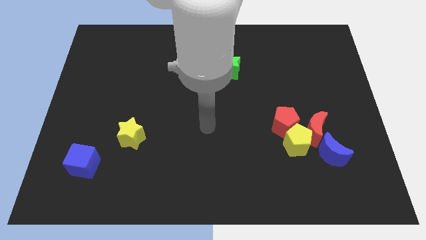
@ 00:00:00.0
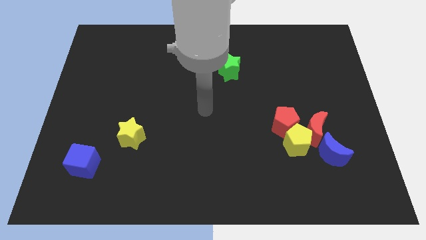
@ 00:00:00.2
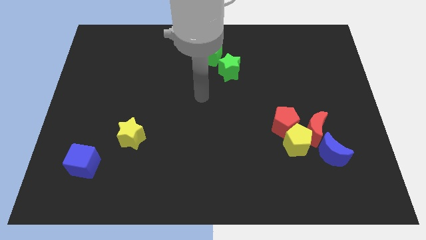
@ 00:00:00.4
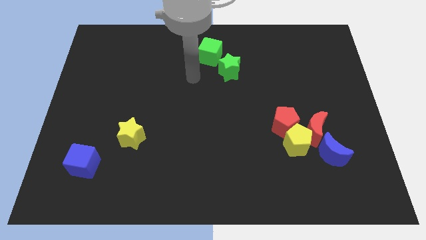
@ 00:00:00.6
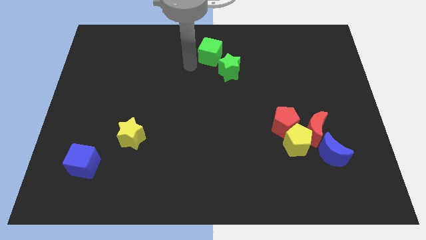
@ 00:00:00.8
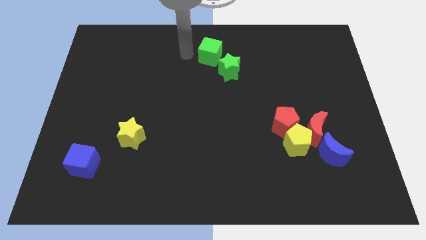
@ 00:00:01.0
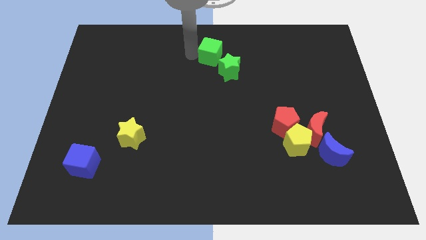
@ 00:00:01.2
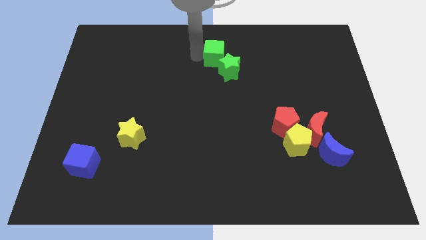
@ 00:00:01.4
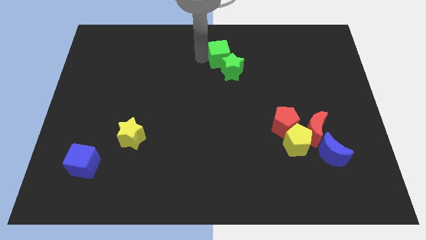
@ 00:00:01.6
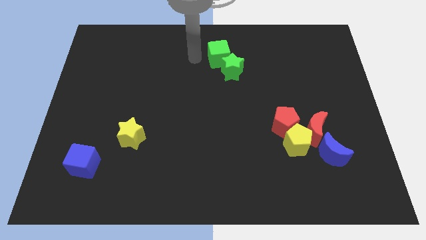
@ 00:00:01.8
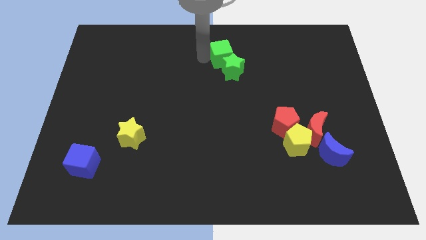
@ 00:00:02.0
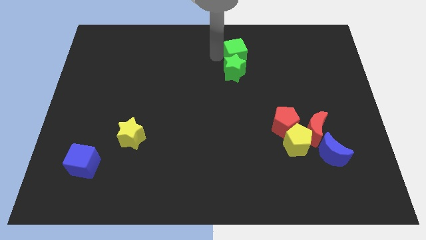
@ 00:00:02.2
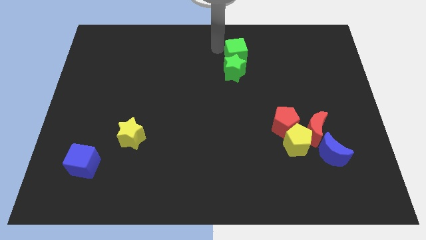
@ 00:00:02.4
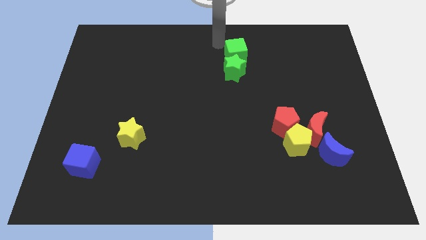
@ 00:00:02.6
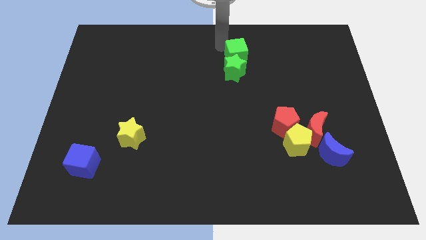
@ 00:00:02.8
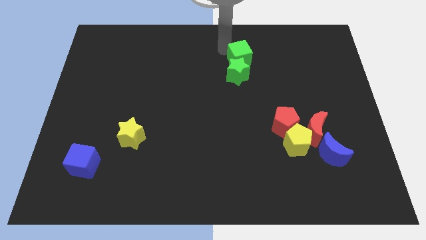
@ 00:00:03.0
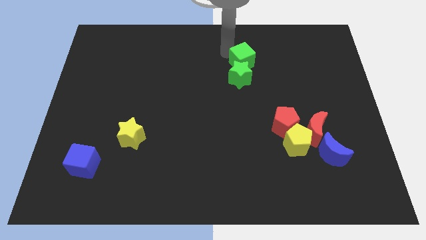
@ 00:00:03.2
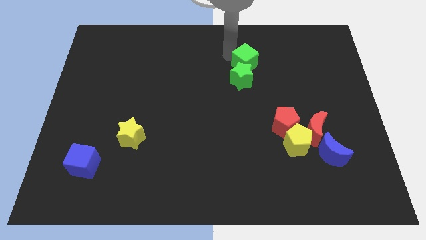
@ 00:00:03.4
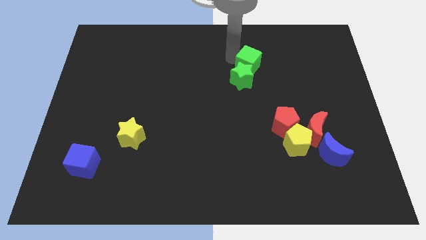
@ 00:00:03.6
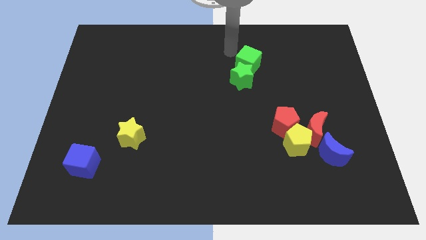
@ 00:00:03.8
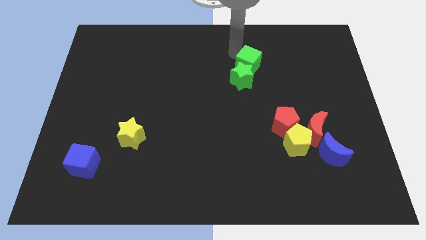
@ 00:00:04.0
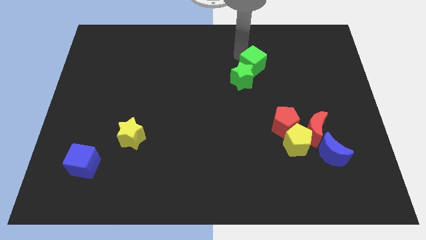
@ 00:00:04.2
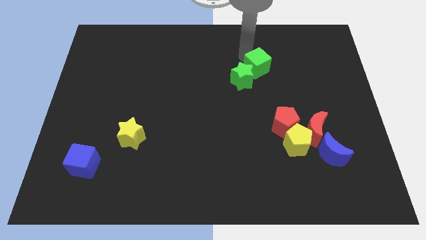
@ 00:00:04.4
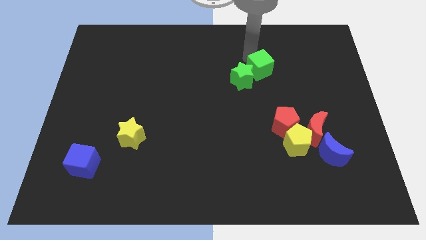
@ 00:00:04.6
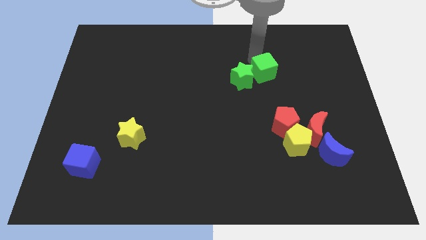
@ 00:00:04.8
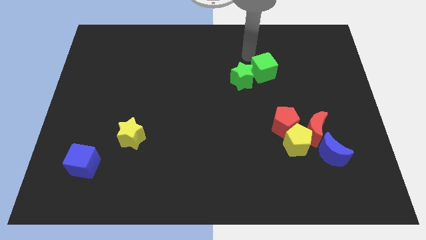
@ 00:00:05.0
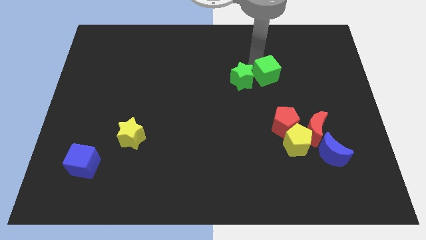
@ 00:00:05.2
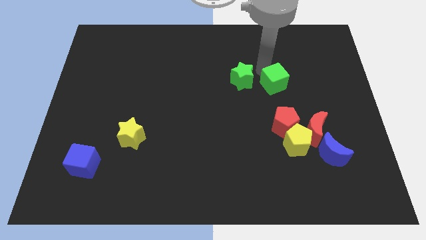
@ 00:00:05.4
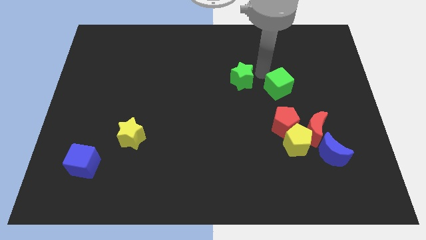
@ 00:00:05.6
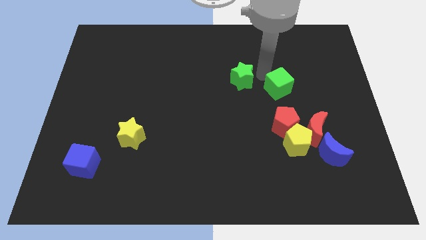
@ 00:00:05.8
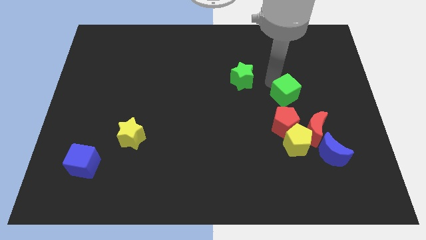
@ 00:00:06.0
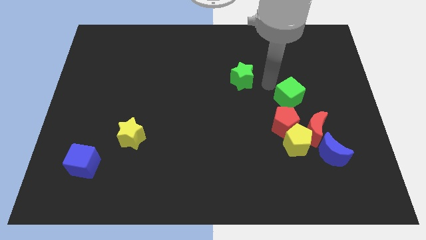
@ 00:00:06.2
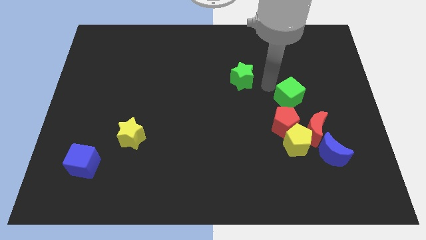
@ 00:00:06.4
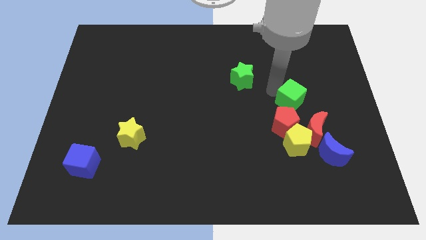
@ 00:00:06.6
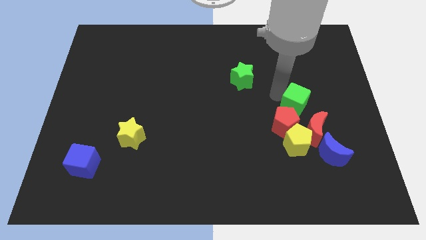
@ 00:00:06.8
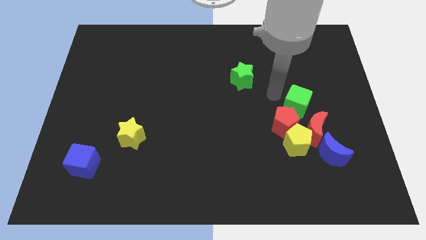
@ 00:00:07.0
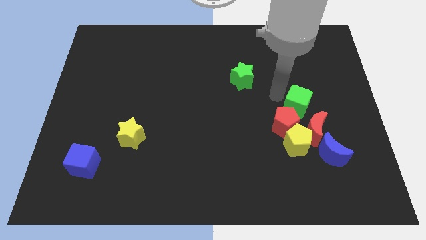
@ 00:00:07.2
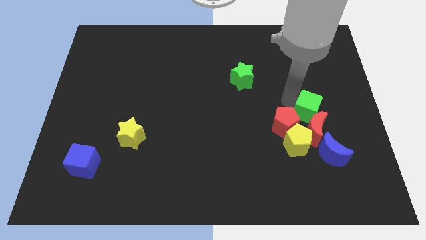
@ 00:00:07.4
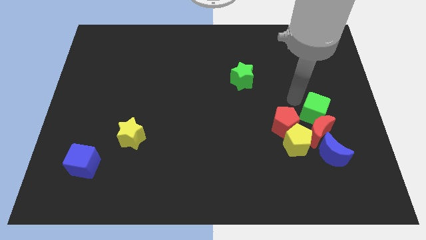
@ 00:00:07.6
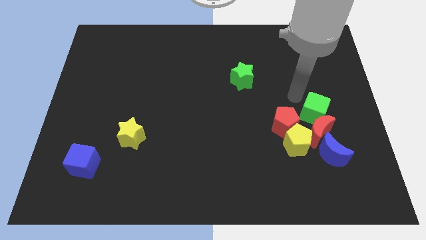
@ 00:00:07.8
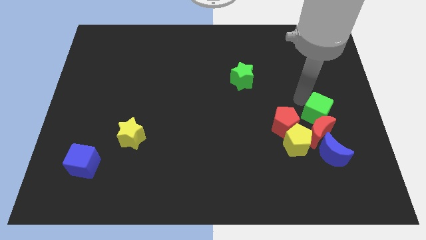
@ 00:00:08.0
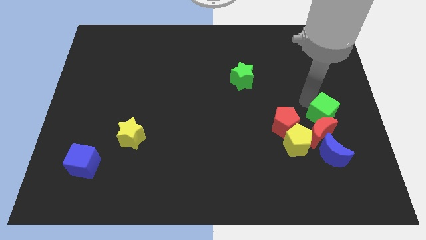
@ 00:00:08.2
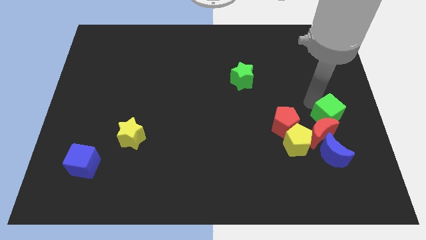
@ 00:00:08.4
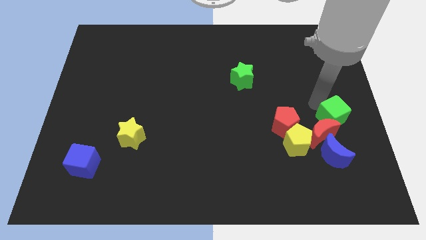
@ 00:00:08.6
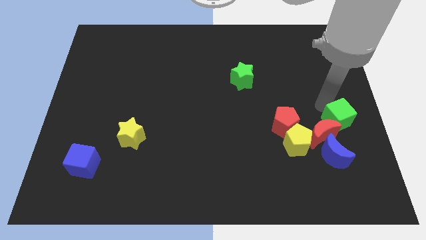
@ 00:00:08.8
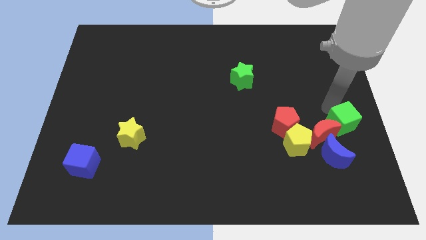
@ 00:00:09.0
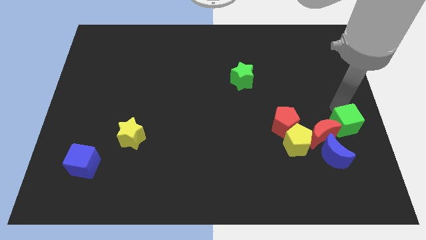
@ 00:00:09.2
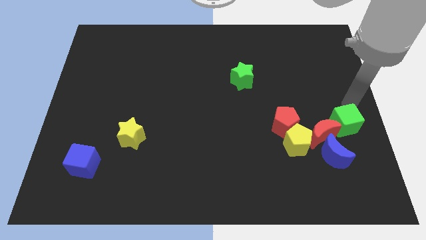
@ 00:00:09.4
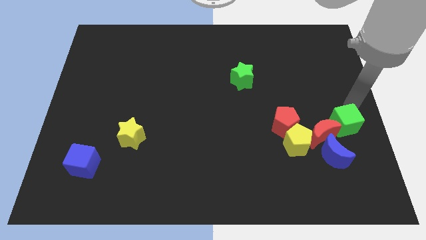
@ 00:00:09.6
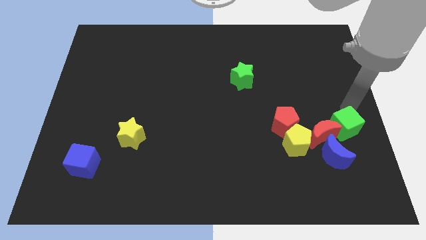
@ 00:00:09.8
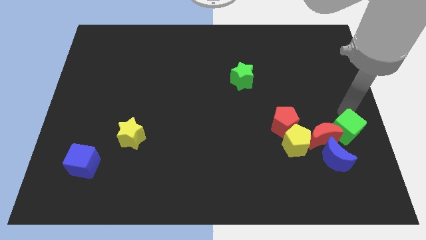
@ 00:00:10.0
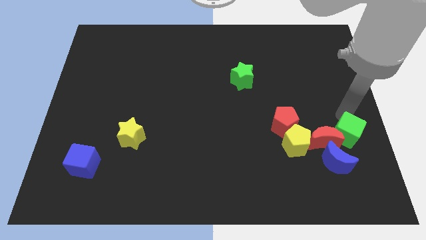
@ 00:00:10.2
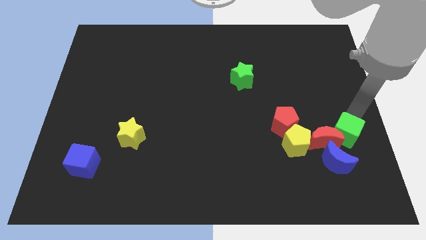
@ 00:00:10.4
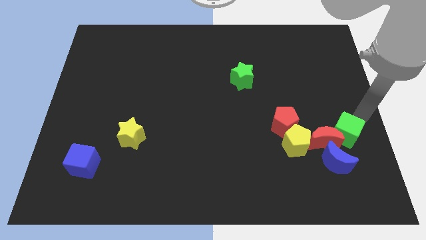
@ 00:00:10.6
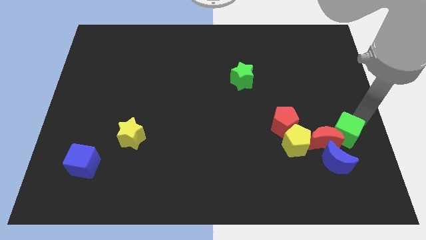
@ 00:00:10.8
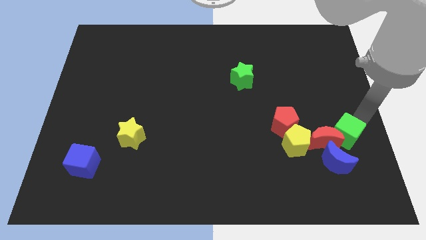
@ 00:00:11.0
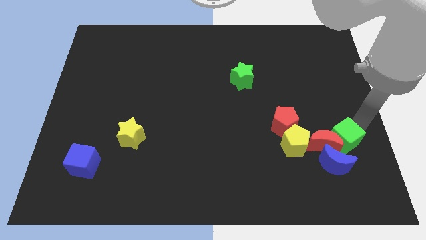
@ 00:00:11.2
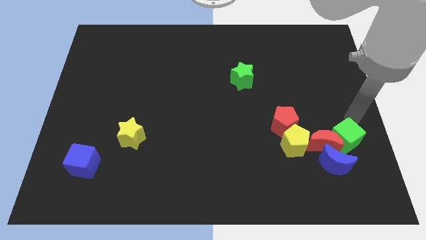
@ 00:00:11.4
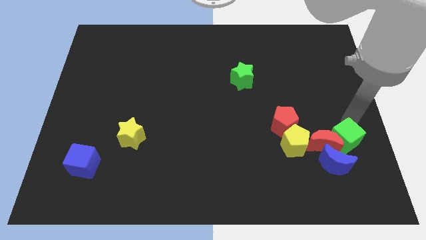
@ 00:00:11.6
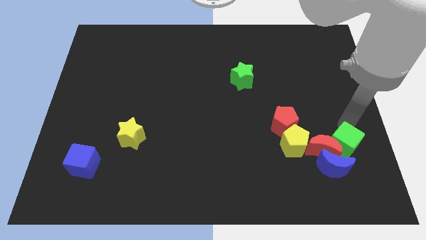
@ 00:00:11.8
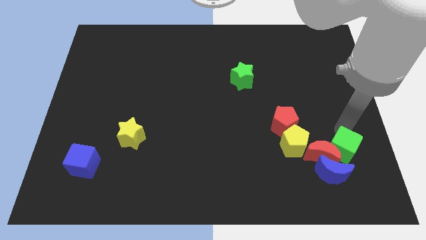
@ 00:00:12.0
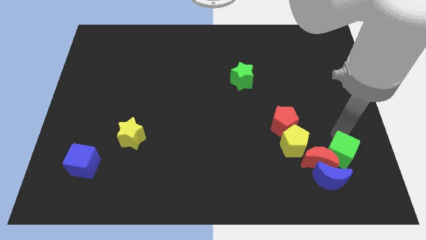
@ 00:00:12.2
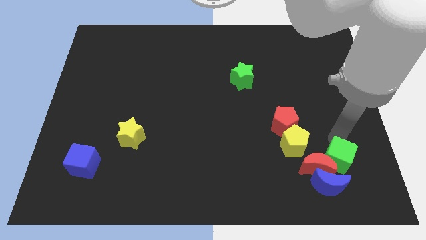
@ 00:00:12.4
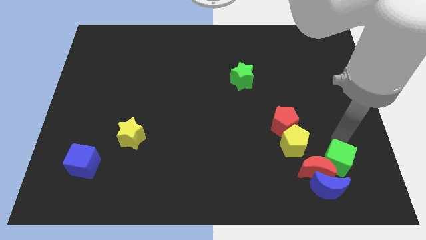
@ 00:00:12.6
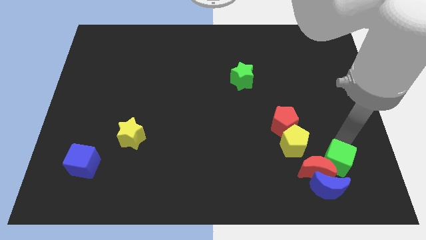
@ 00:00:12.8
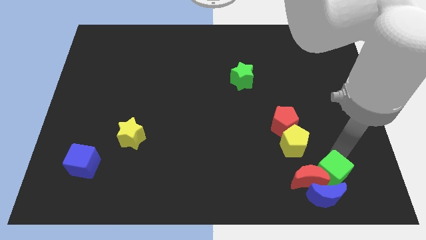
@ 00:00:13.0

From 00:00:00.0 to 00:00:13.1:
move the green cube close to the blue moon

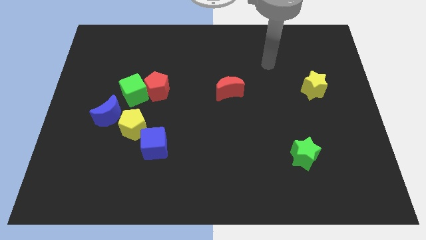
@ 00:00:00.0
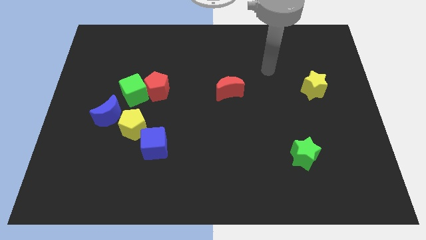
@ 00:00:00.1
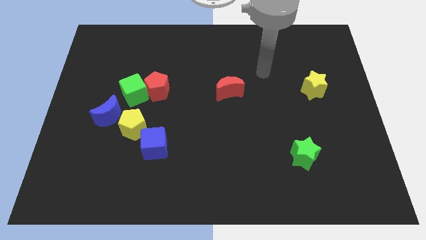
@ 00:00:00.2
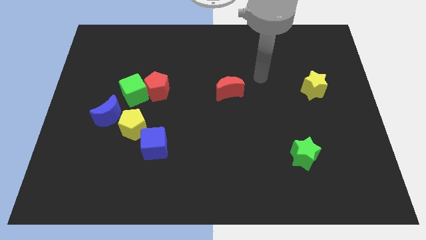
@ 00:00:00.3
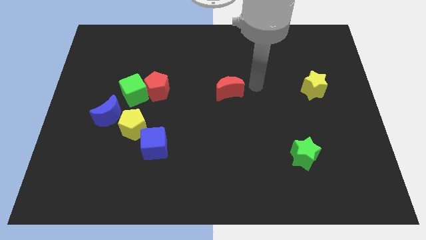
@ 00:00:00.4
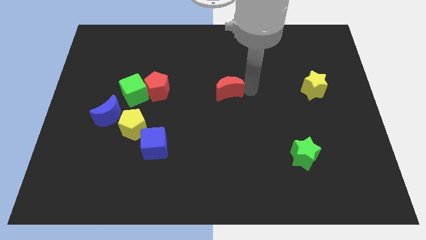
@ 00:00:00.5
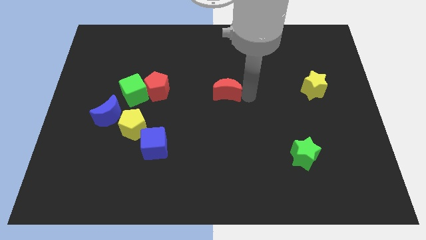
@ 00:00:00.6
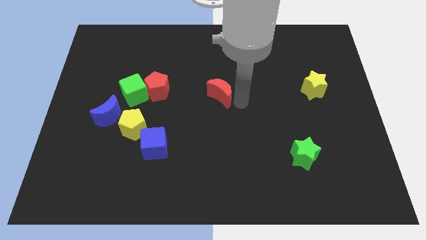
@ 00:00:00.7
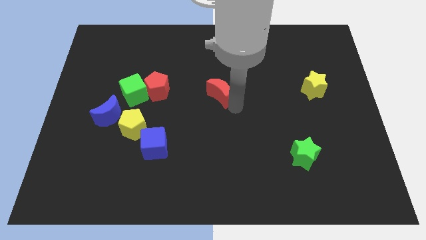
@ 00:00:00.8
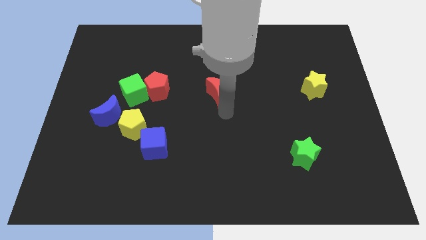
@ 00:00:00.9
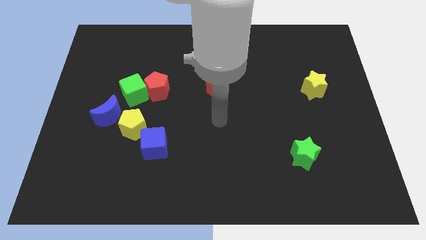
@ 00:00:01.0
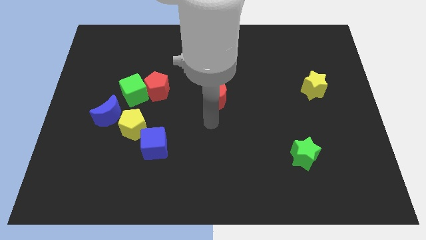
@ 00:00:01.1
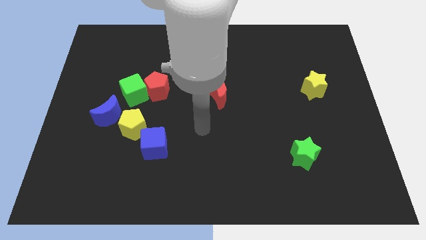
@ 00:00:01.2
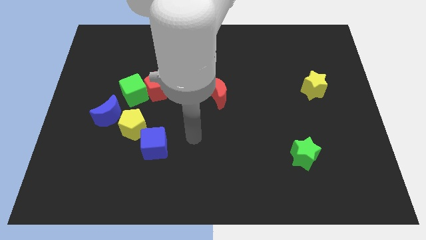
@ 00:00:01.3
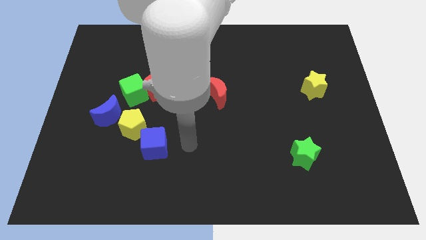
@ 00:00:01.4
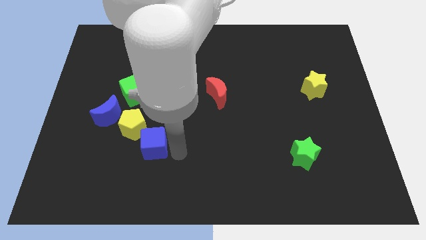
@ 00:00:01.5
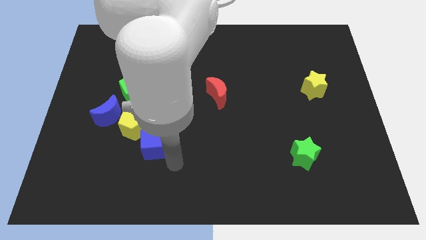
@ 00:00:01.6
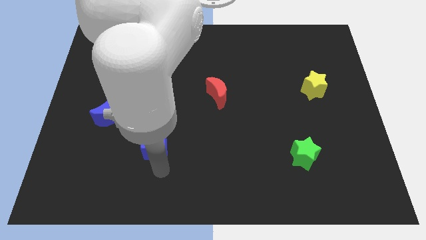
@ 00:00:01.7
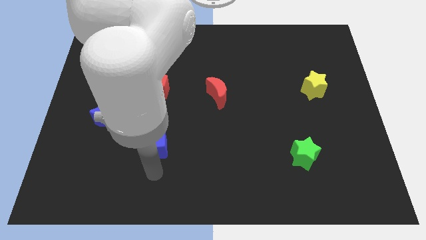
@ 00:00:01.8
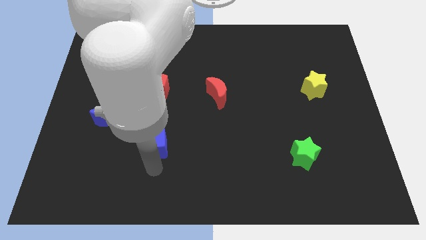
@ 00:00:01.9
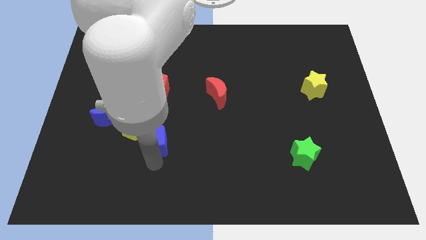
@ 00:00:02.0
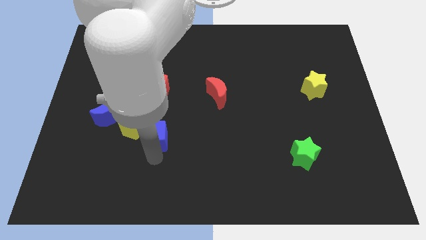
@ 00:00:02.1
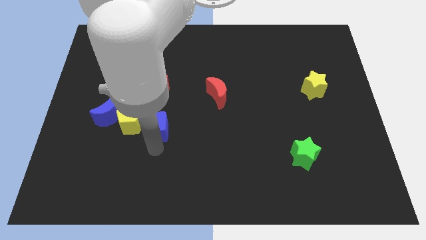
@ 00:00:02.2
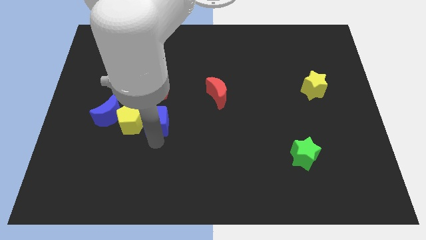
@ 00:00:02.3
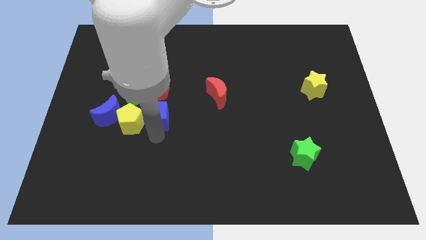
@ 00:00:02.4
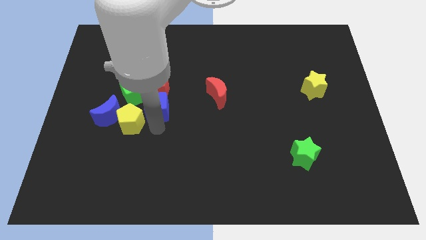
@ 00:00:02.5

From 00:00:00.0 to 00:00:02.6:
push the blue cube next to the red pentagon
